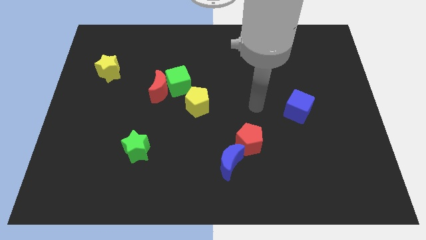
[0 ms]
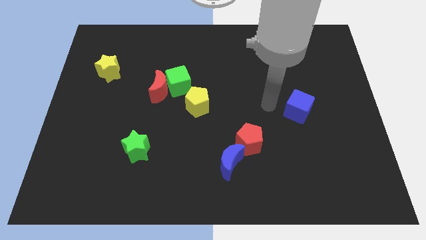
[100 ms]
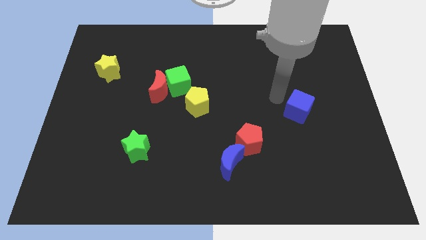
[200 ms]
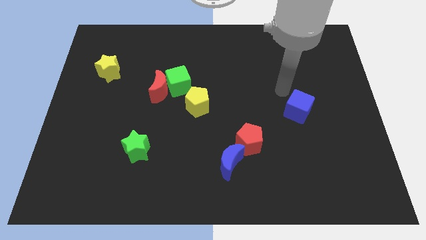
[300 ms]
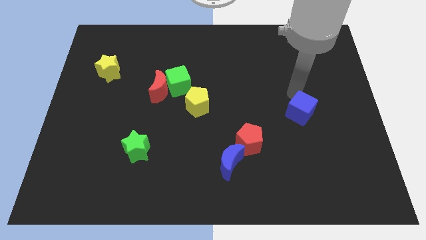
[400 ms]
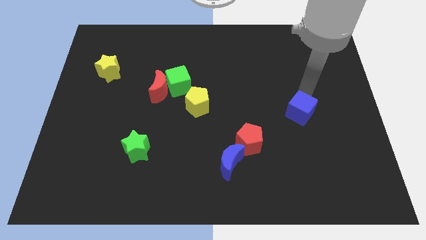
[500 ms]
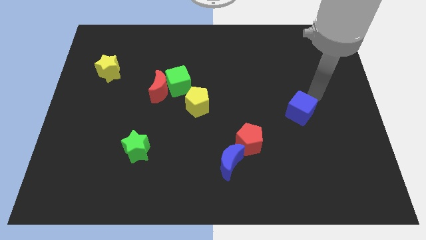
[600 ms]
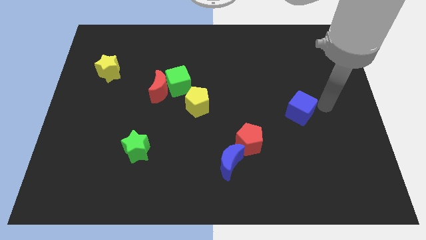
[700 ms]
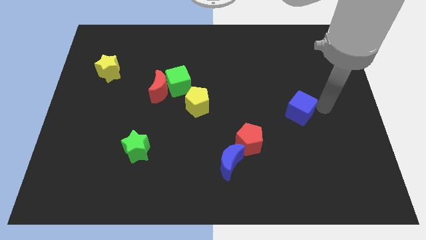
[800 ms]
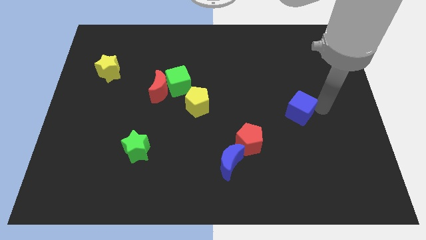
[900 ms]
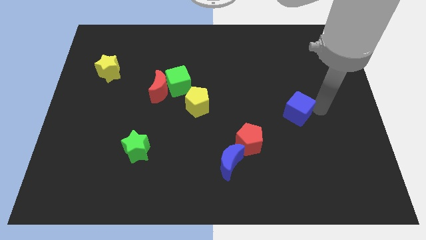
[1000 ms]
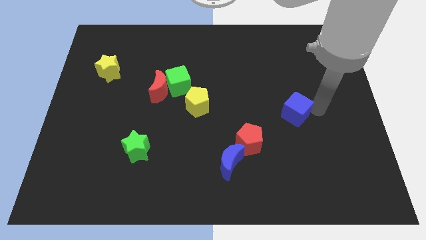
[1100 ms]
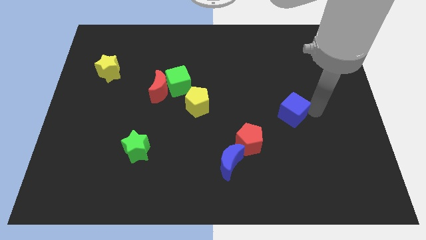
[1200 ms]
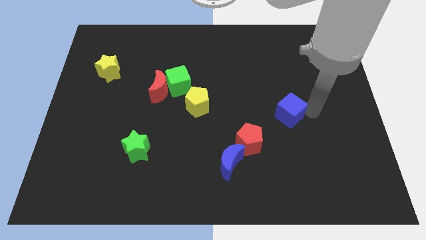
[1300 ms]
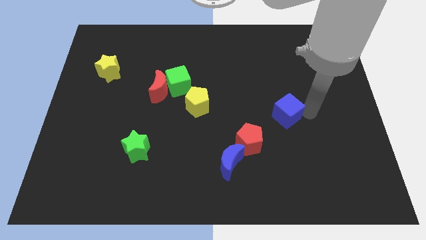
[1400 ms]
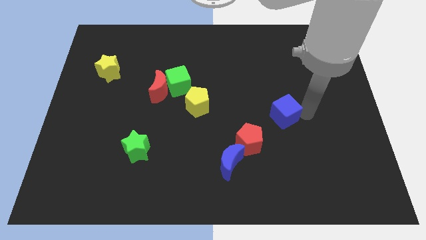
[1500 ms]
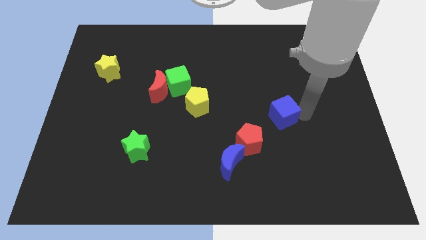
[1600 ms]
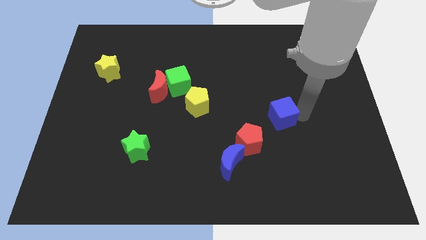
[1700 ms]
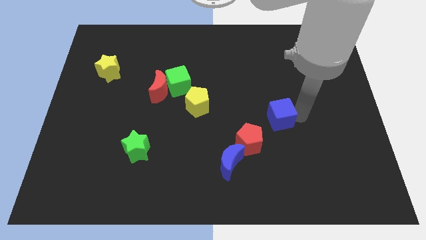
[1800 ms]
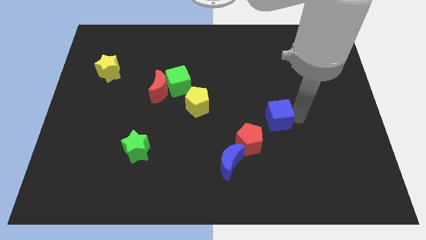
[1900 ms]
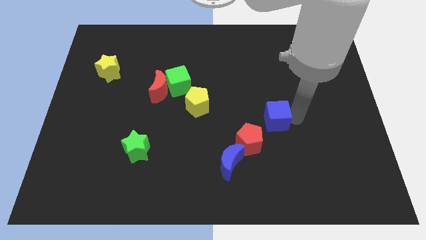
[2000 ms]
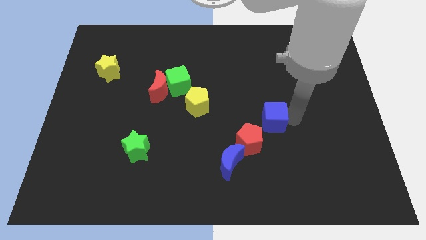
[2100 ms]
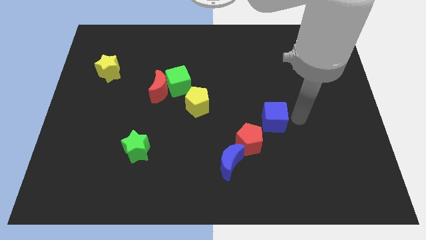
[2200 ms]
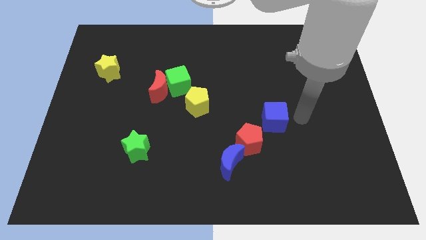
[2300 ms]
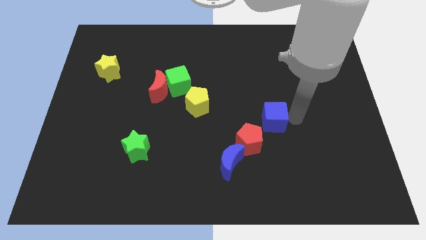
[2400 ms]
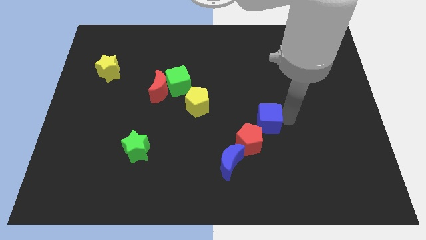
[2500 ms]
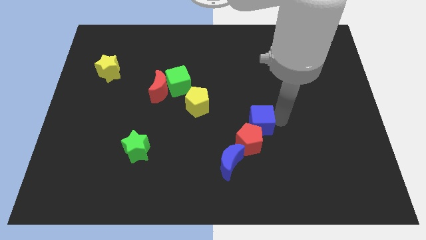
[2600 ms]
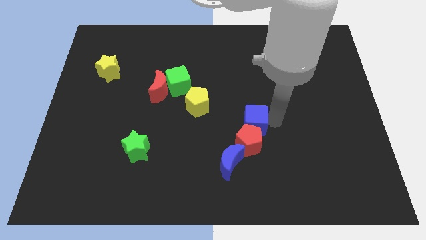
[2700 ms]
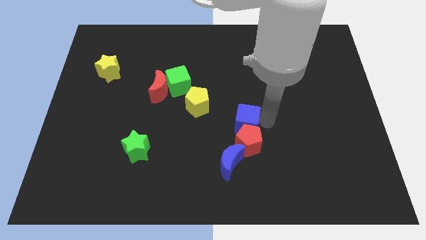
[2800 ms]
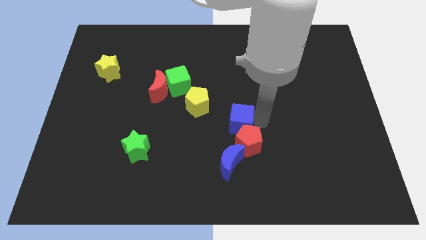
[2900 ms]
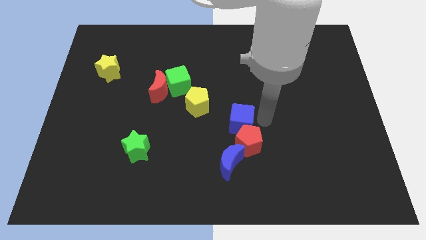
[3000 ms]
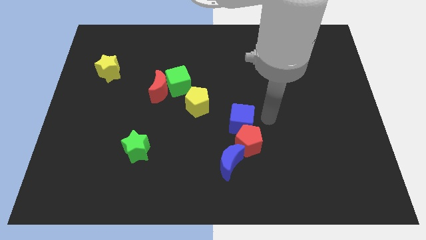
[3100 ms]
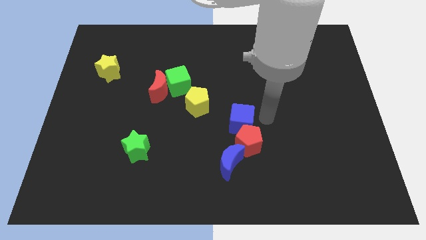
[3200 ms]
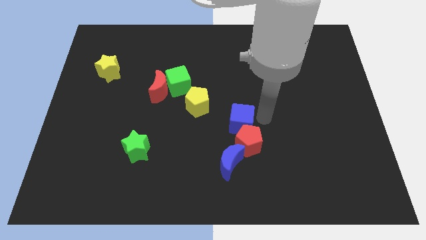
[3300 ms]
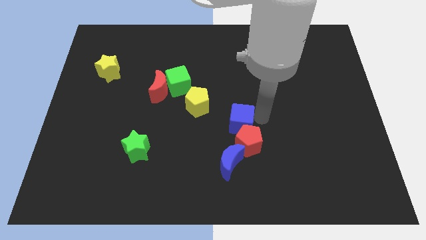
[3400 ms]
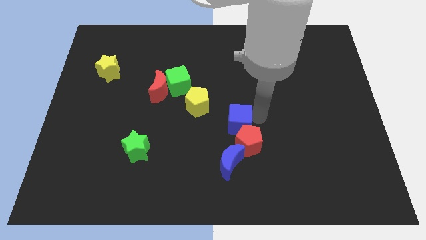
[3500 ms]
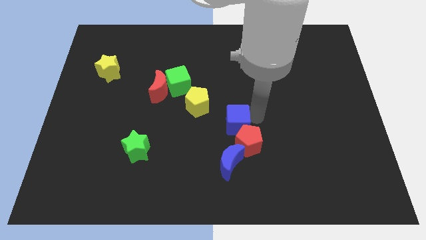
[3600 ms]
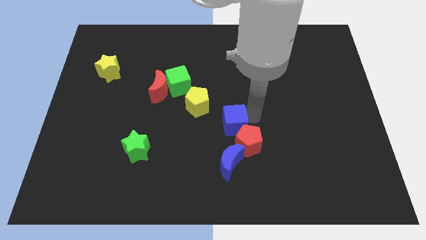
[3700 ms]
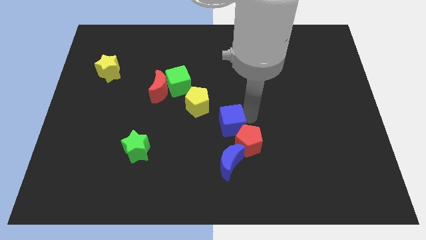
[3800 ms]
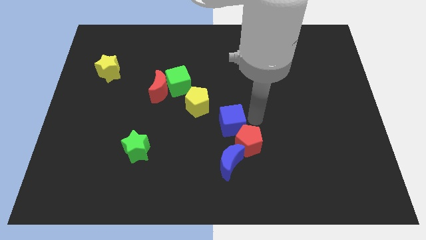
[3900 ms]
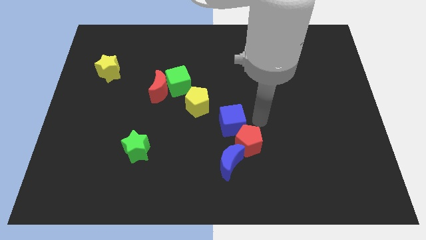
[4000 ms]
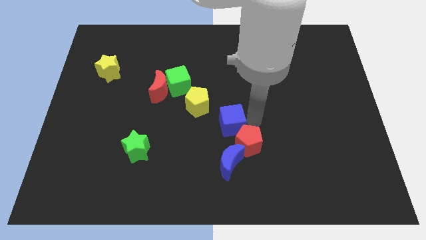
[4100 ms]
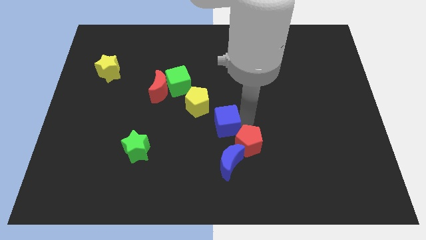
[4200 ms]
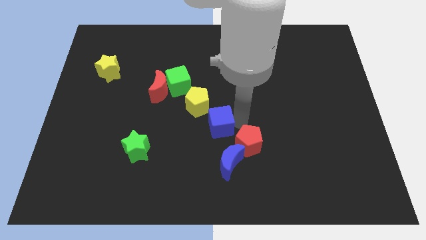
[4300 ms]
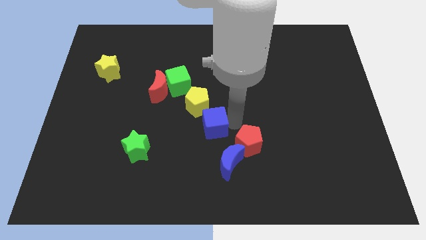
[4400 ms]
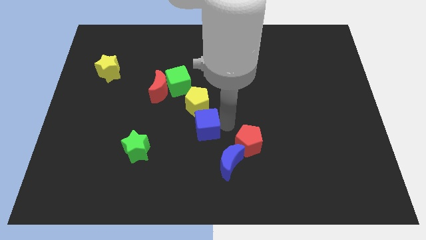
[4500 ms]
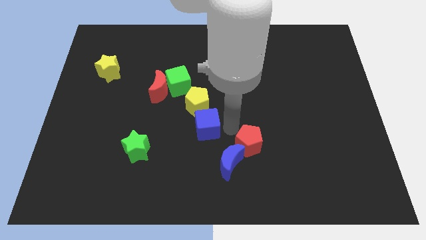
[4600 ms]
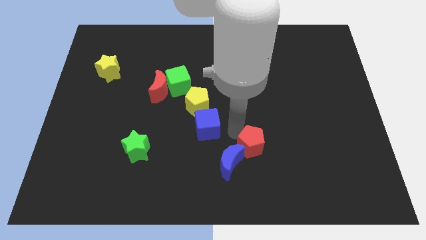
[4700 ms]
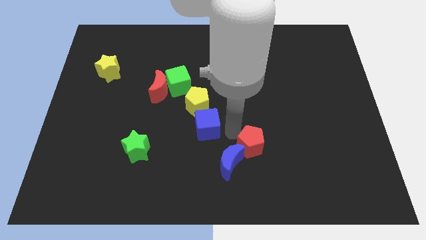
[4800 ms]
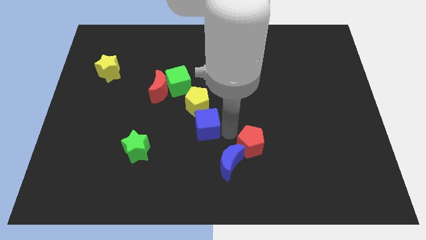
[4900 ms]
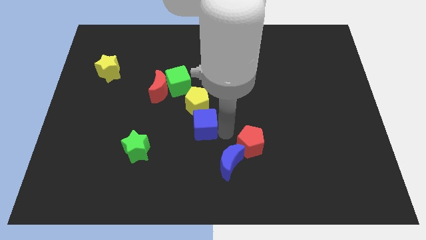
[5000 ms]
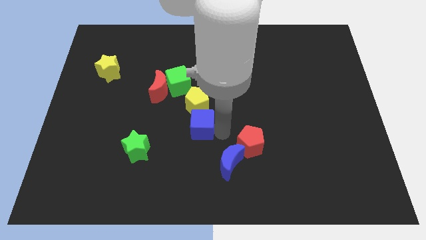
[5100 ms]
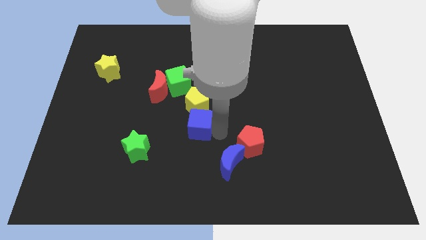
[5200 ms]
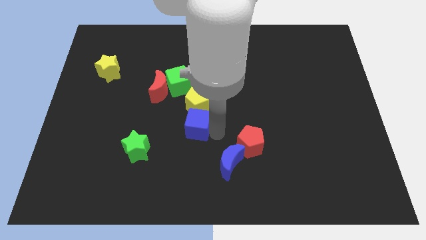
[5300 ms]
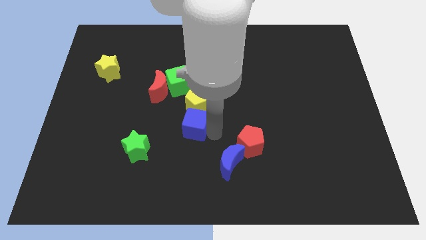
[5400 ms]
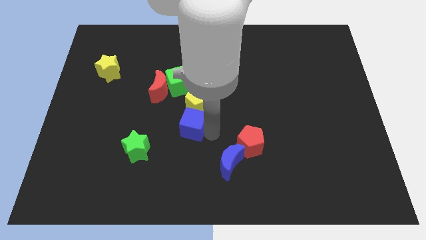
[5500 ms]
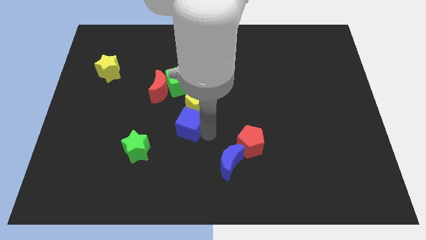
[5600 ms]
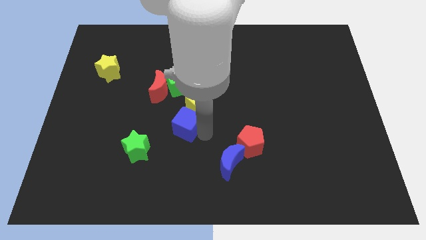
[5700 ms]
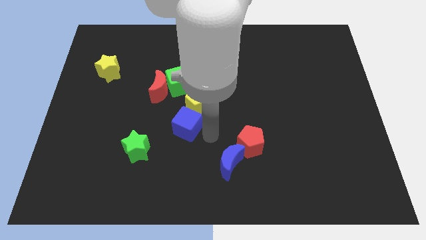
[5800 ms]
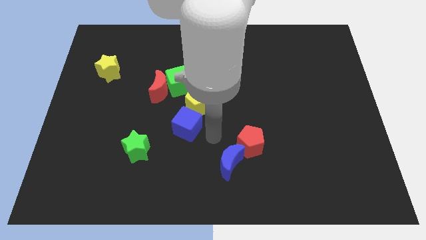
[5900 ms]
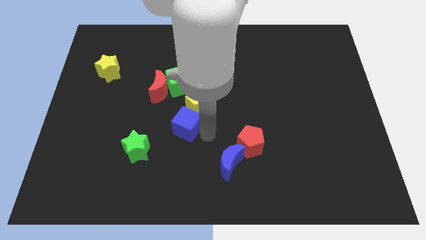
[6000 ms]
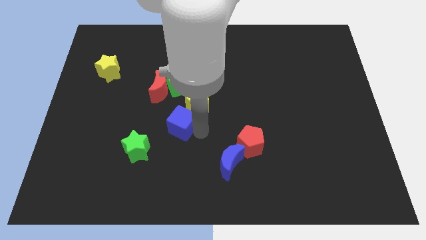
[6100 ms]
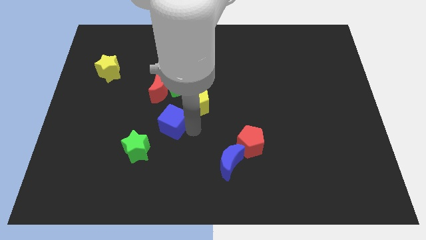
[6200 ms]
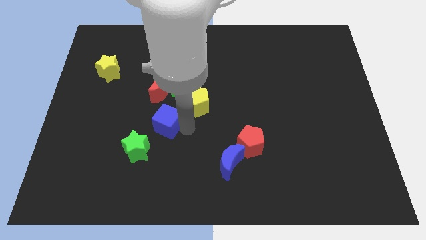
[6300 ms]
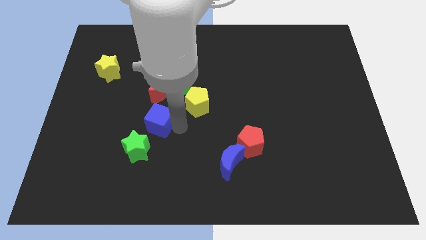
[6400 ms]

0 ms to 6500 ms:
put the blue cube to the top side of the green star

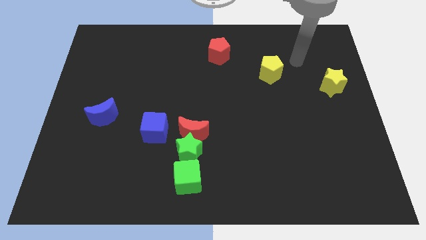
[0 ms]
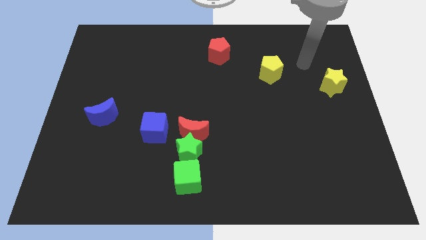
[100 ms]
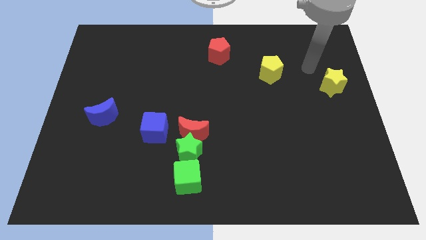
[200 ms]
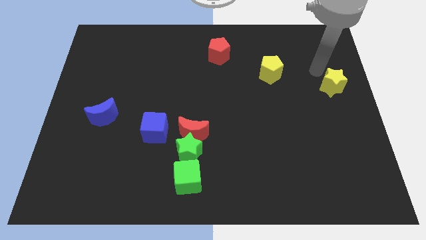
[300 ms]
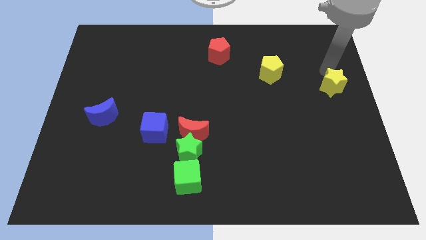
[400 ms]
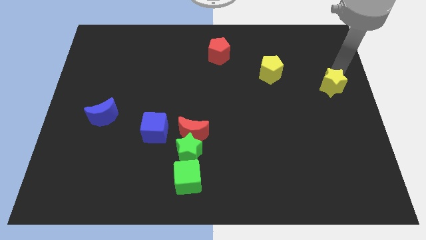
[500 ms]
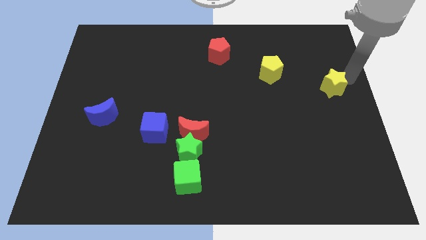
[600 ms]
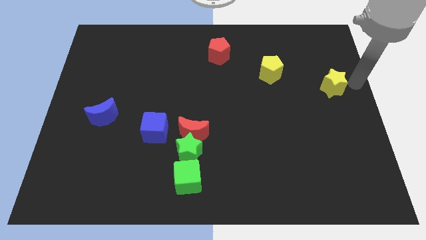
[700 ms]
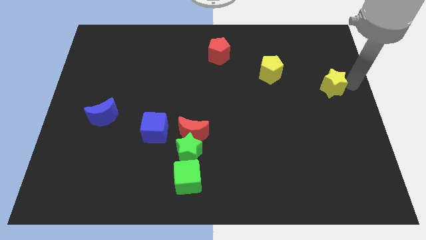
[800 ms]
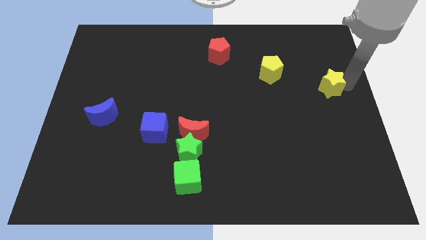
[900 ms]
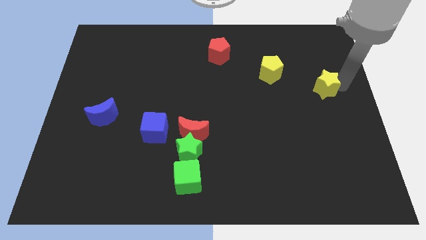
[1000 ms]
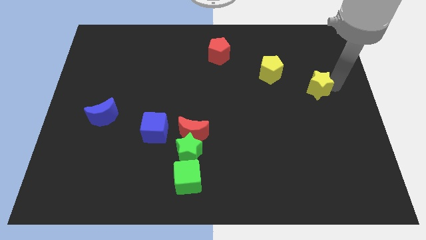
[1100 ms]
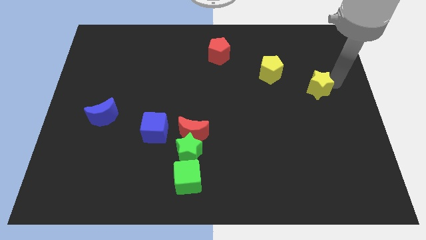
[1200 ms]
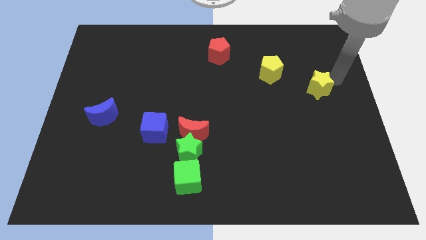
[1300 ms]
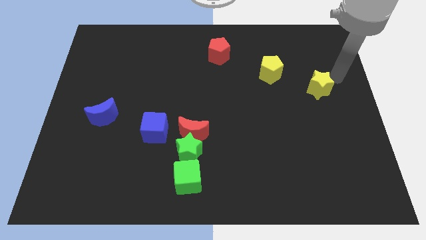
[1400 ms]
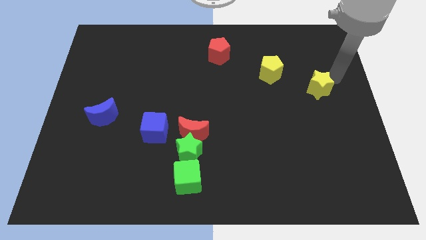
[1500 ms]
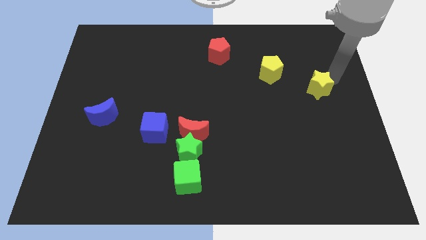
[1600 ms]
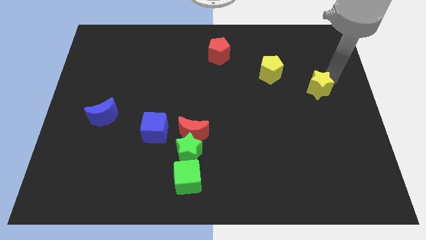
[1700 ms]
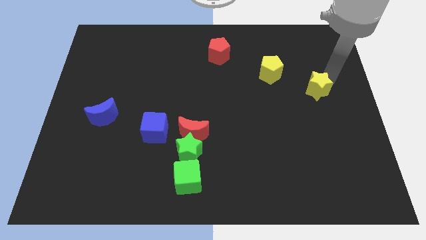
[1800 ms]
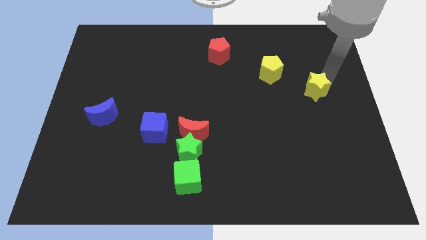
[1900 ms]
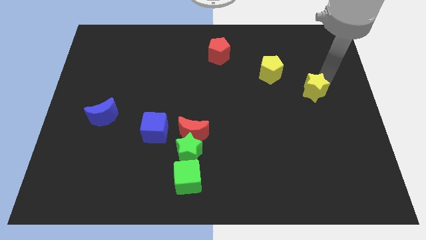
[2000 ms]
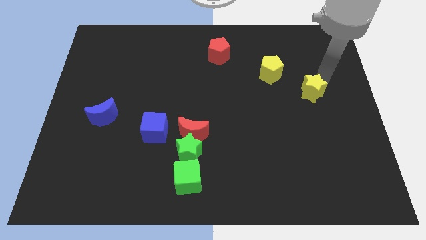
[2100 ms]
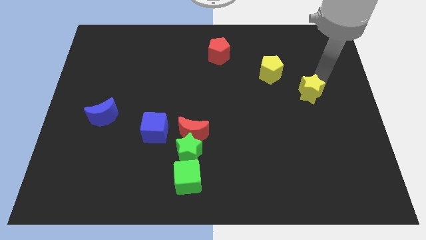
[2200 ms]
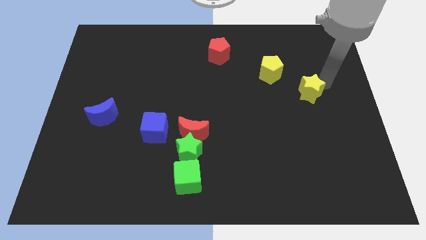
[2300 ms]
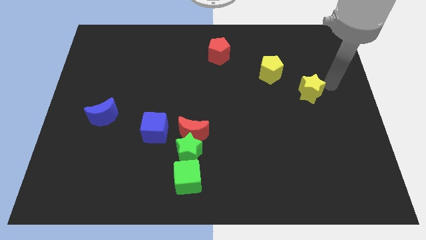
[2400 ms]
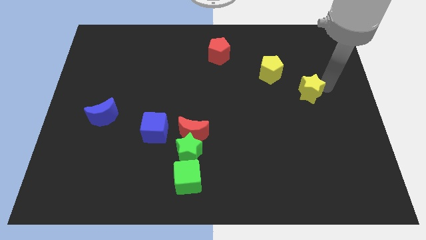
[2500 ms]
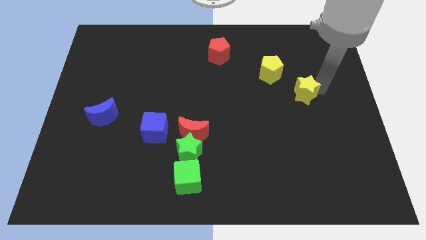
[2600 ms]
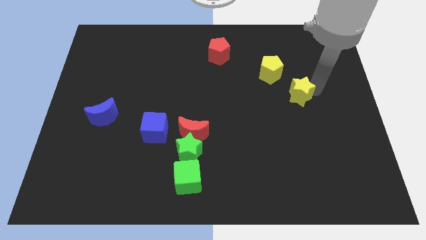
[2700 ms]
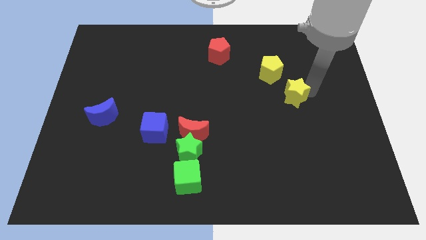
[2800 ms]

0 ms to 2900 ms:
slide the yellow star below the yellow pentagon
